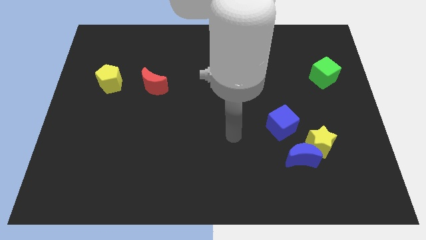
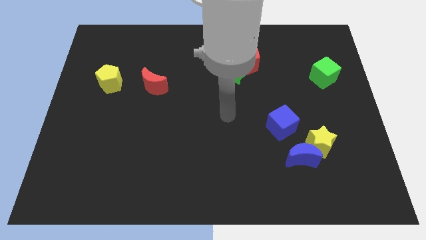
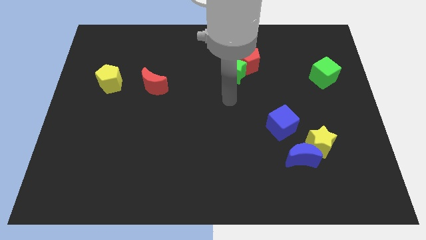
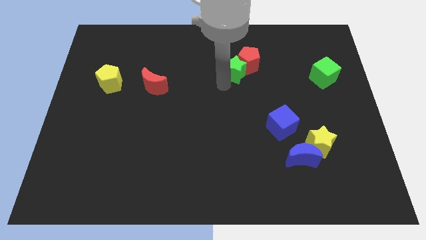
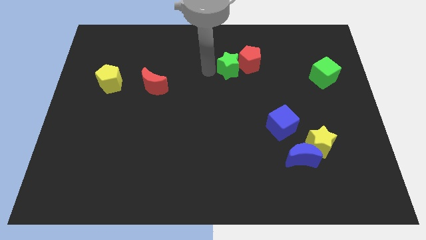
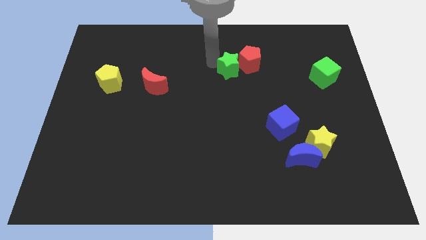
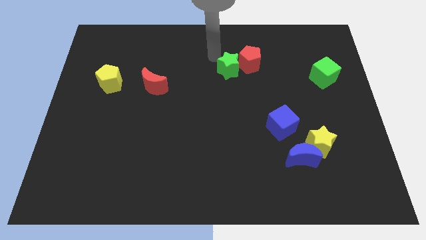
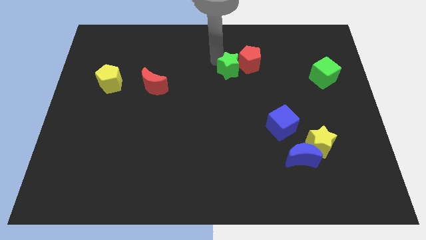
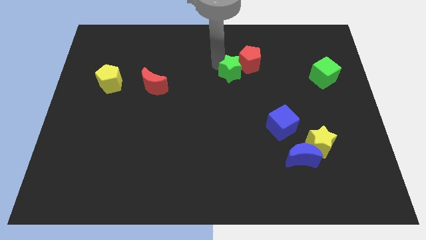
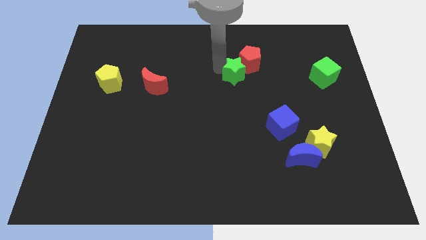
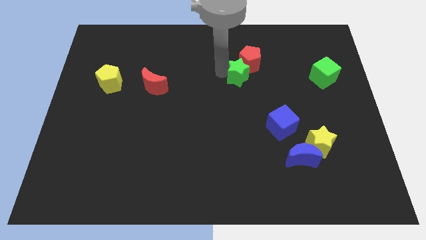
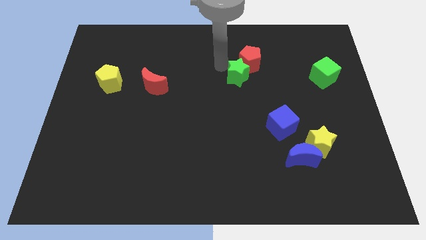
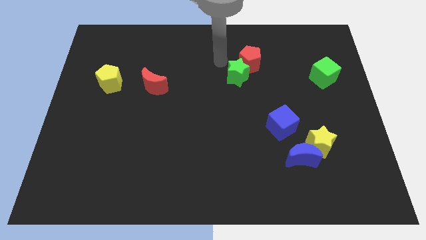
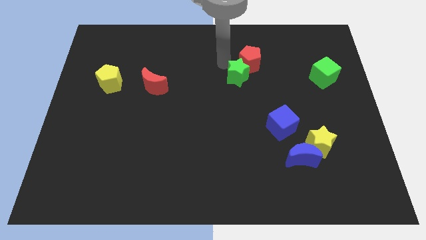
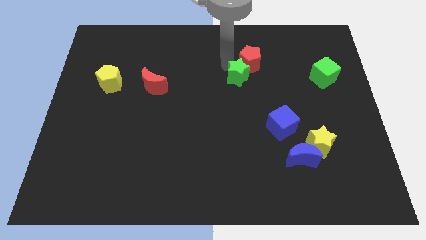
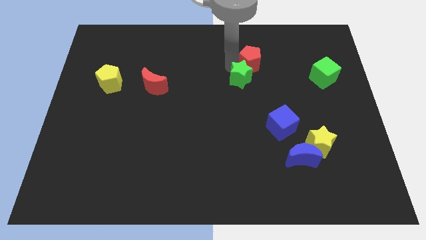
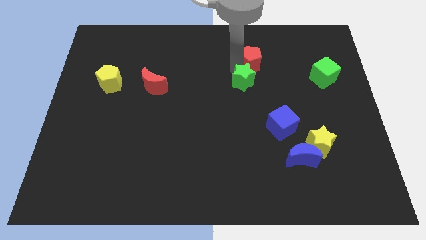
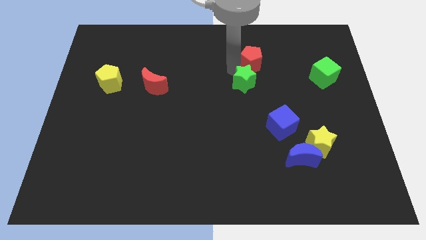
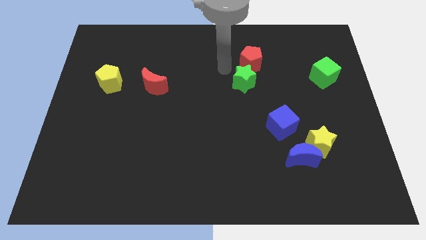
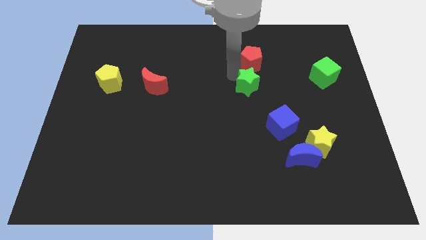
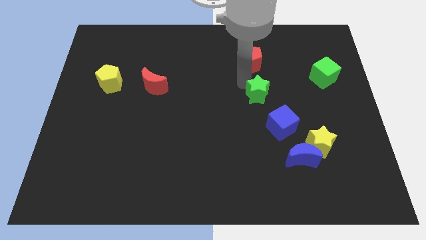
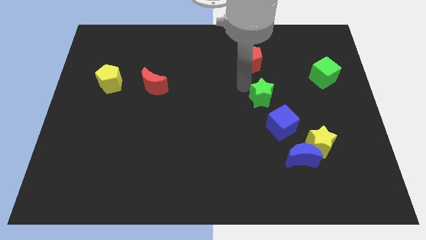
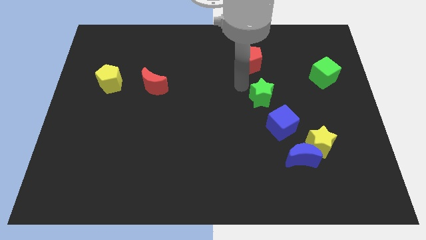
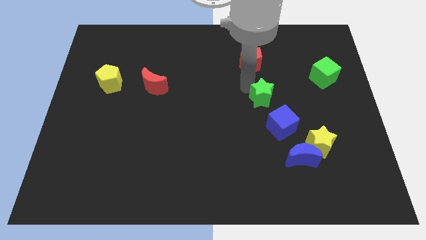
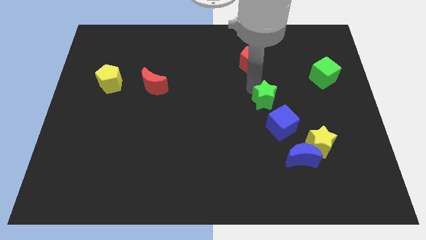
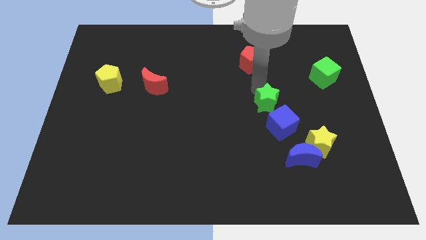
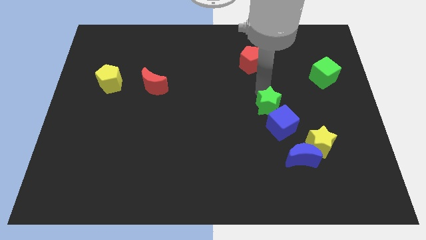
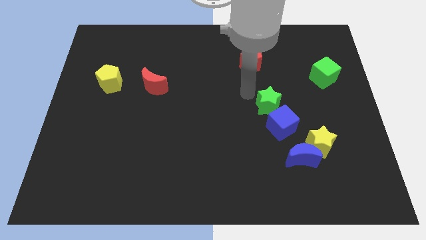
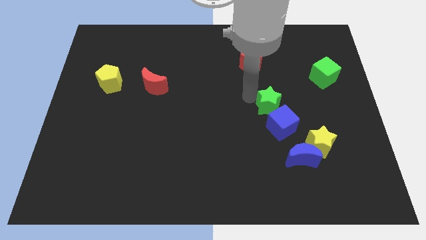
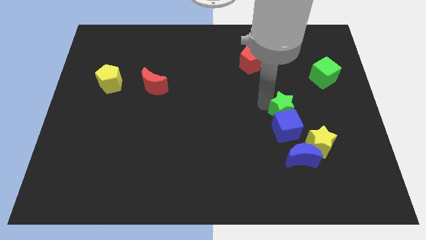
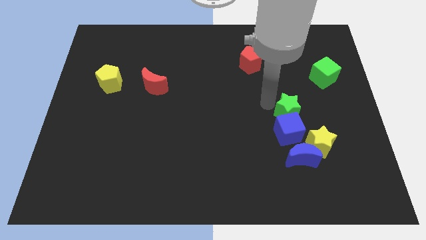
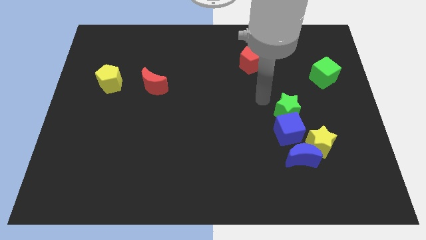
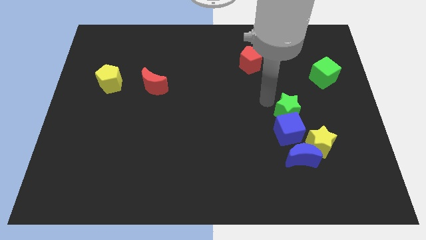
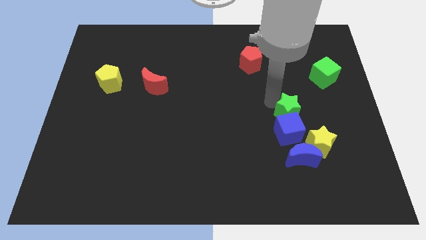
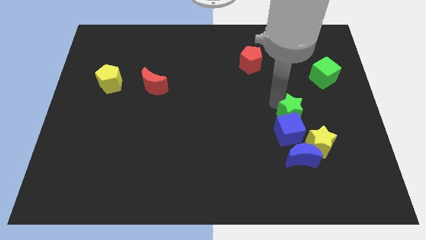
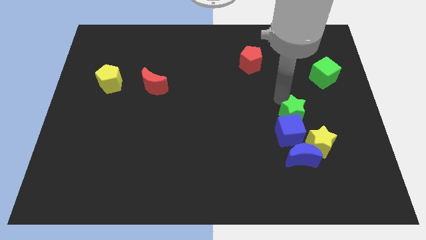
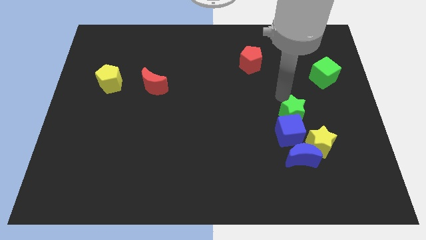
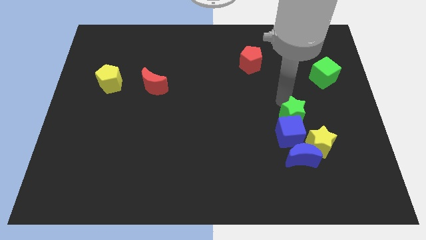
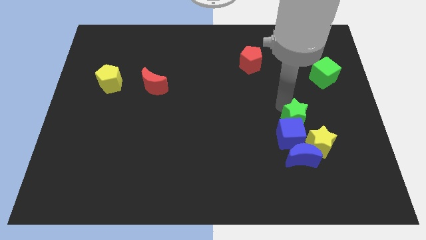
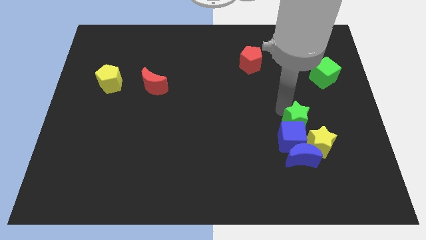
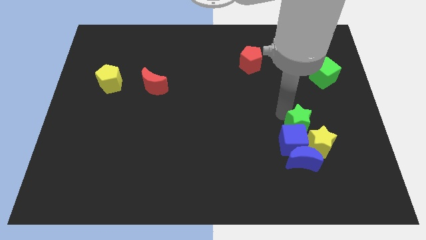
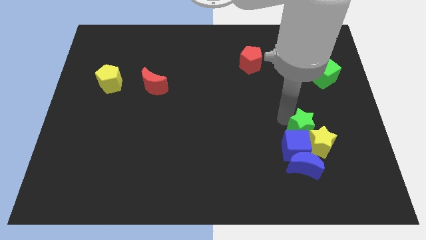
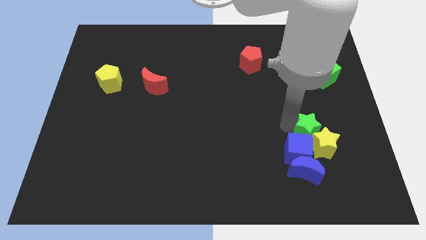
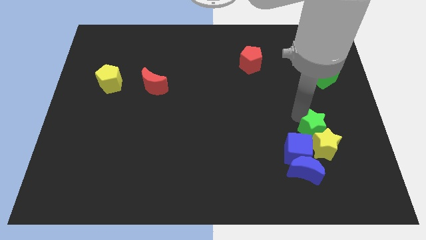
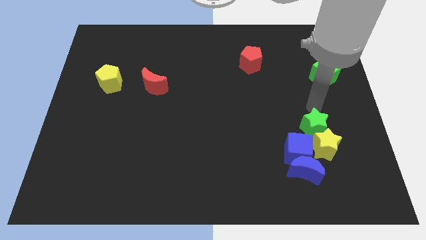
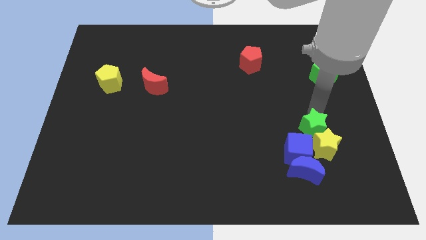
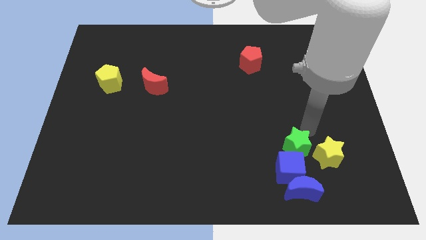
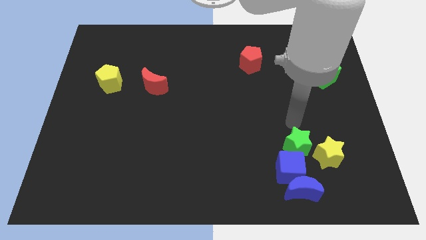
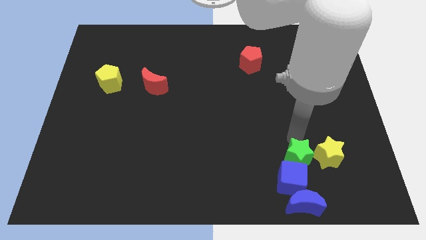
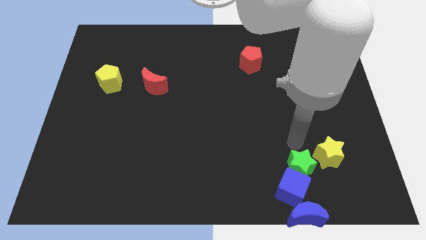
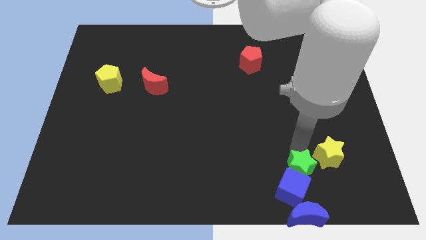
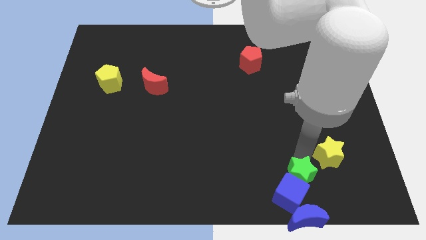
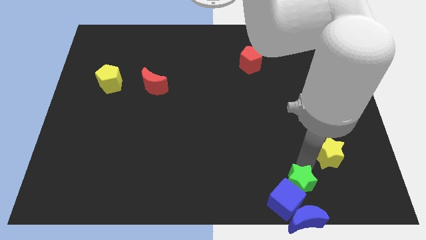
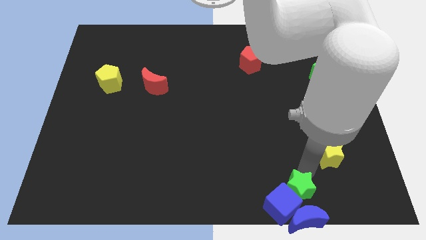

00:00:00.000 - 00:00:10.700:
push the green star close to the blue moon

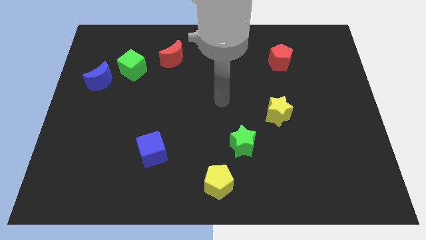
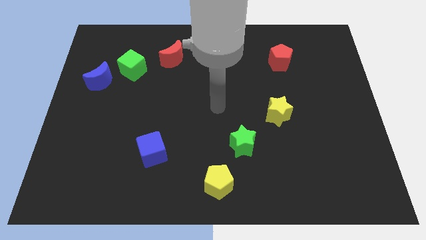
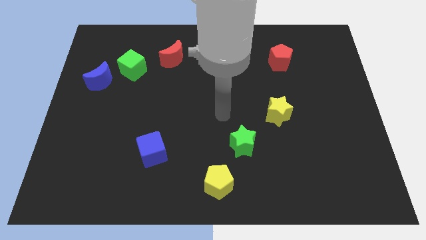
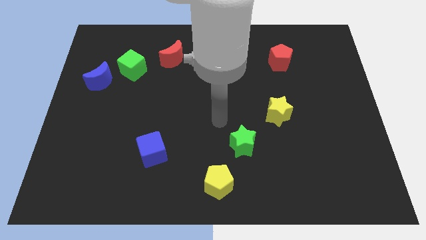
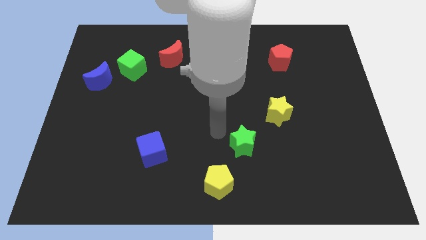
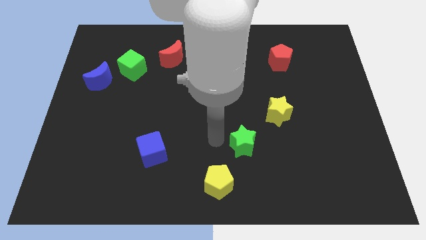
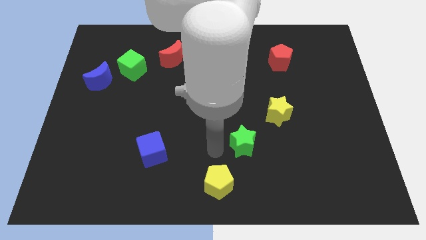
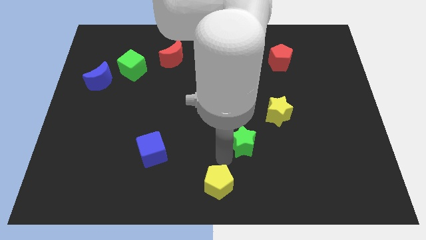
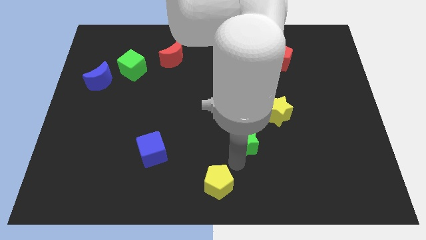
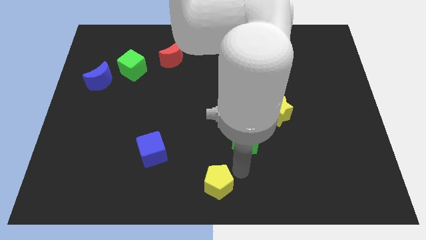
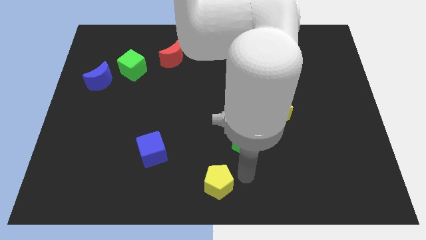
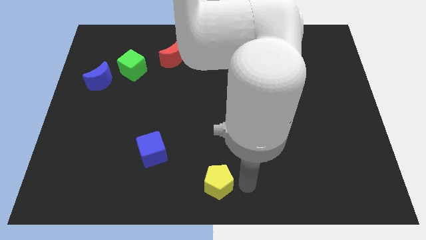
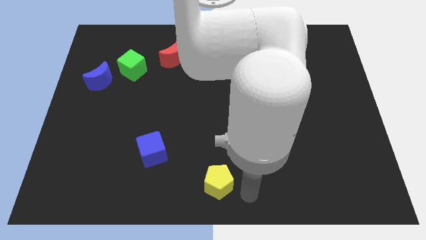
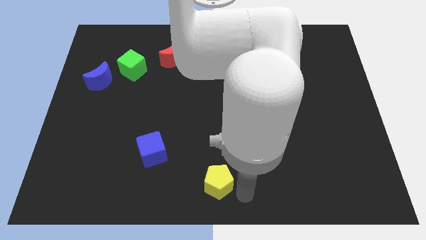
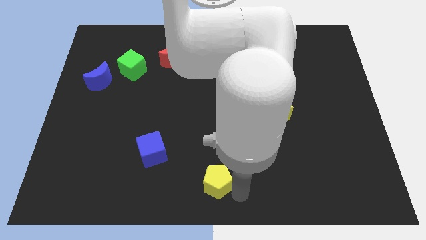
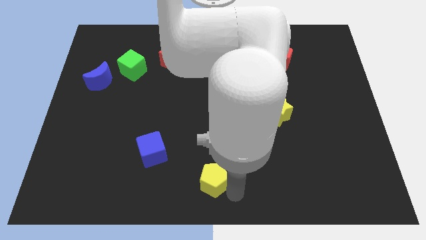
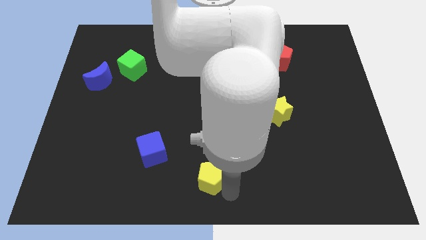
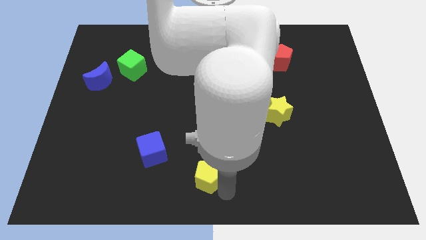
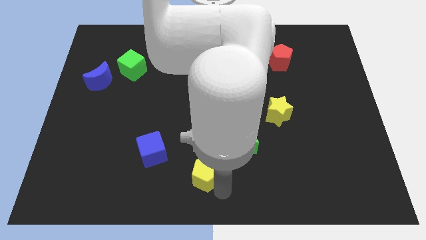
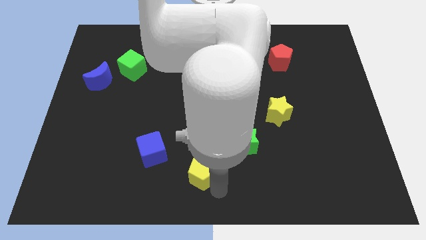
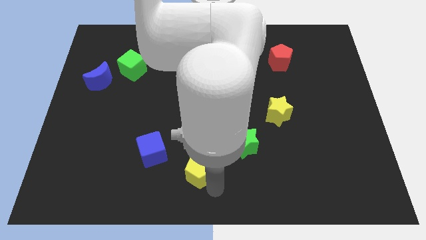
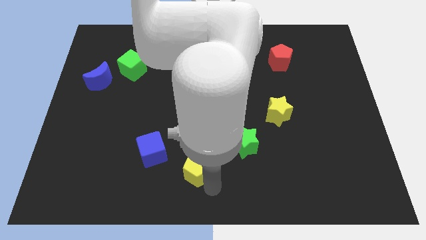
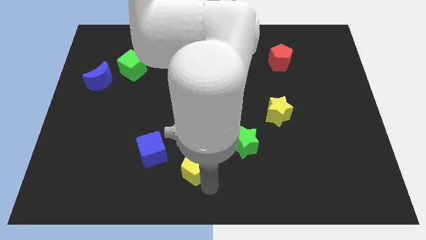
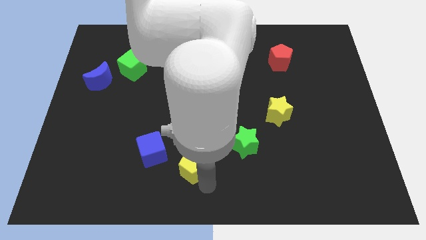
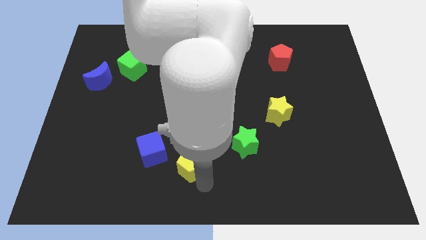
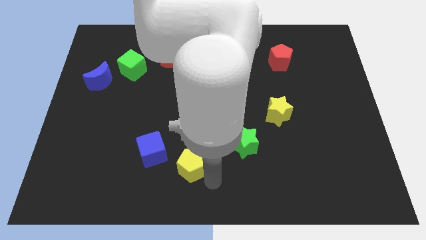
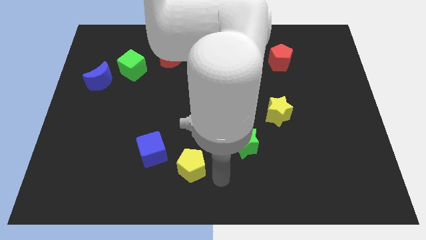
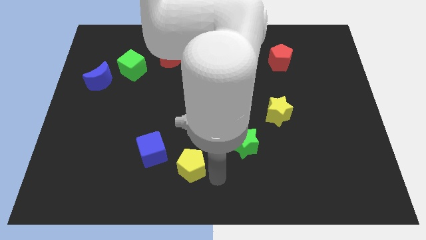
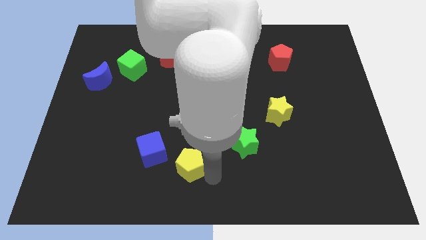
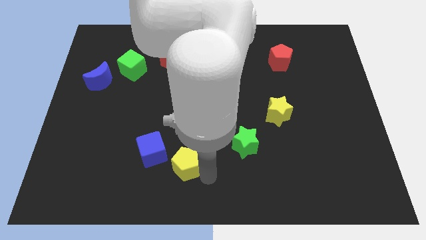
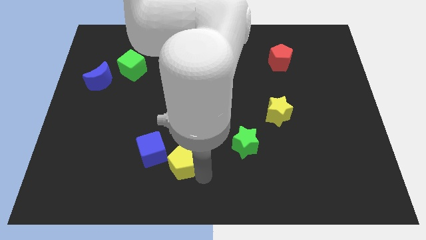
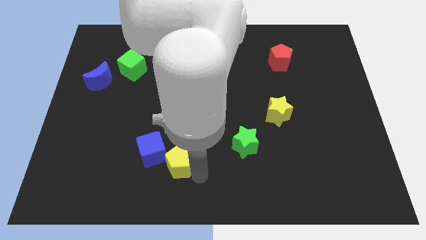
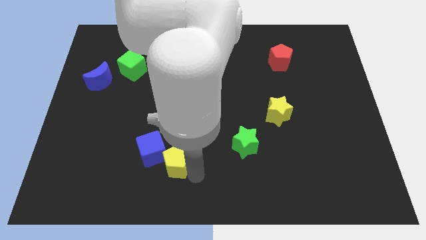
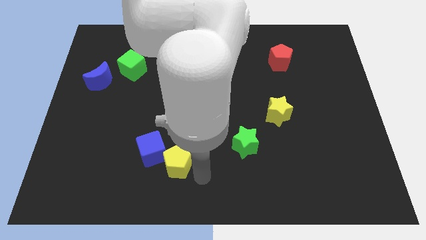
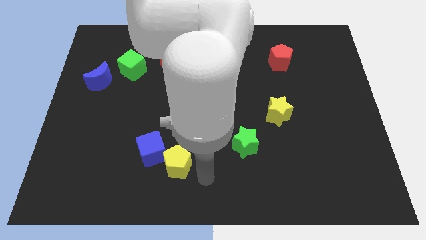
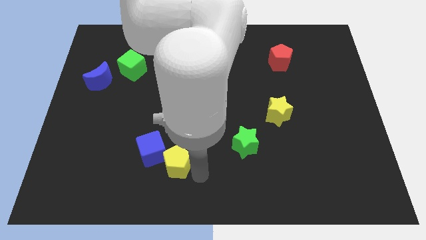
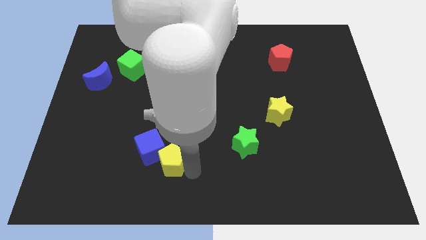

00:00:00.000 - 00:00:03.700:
move the yellow pentagon towards the blue cube
